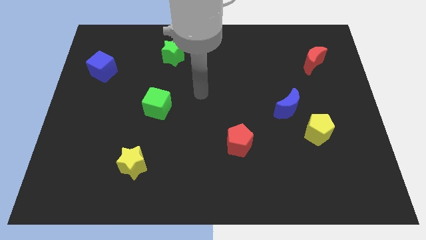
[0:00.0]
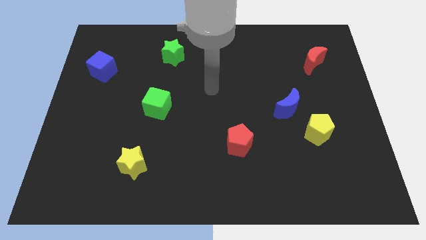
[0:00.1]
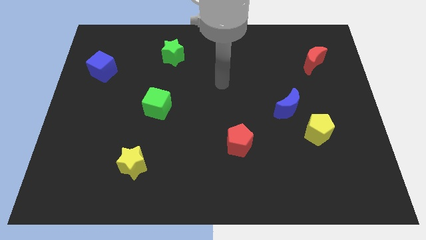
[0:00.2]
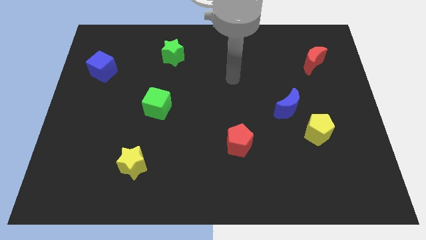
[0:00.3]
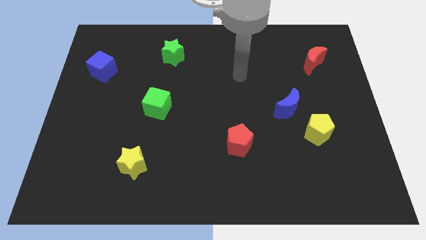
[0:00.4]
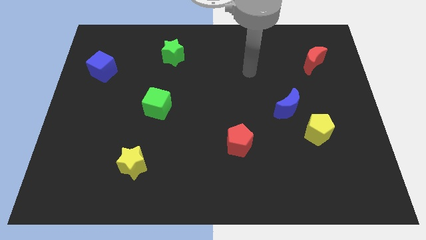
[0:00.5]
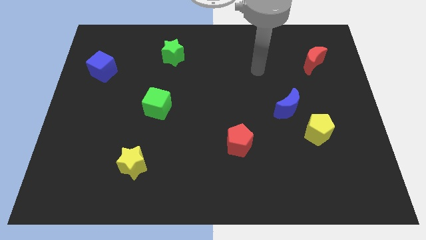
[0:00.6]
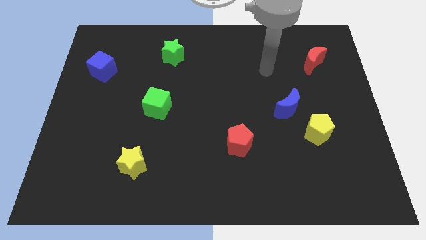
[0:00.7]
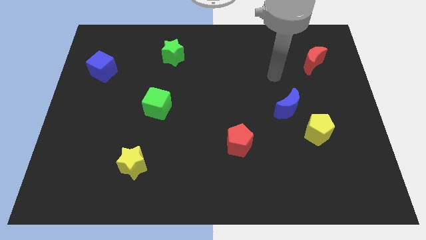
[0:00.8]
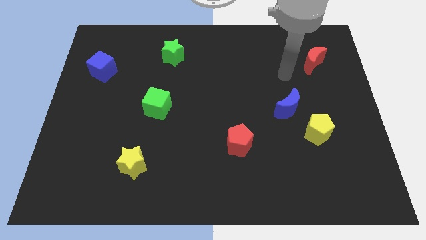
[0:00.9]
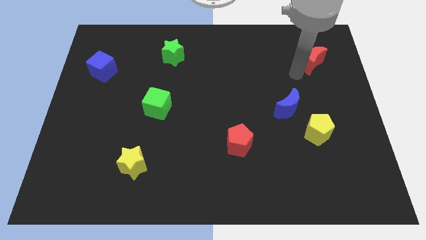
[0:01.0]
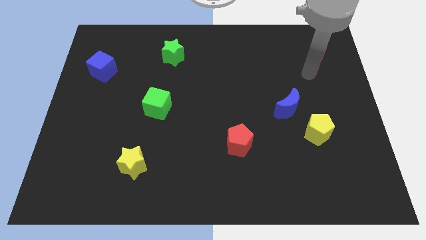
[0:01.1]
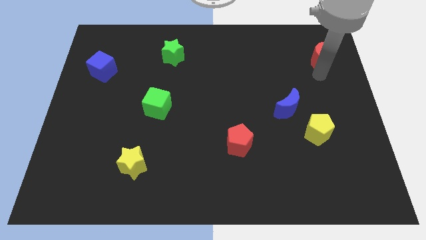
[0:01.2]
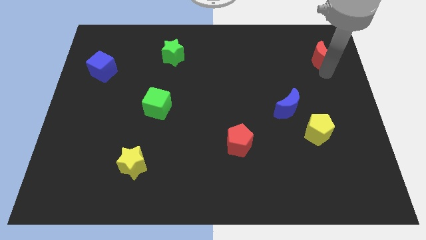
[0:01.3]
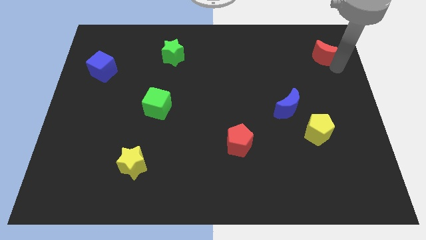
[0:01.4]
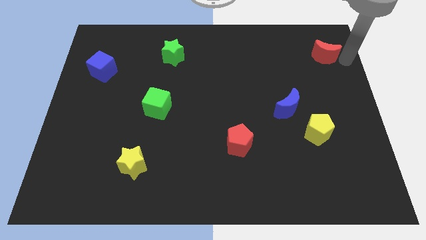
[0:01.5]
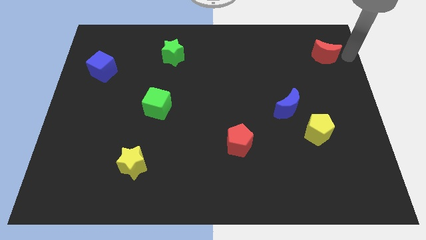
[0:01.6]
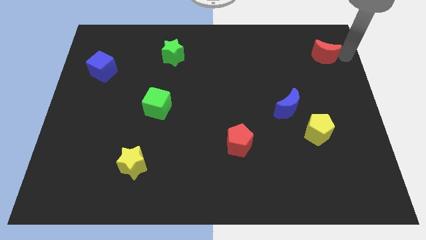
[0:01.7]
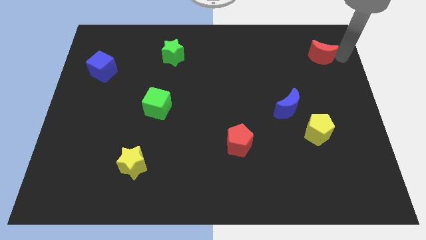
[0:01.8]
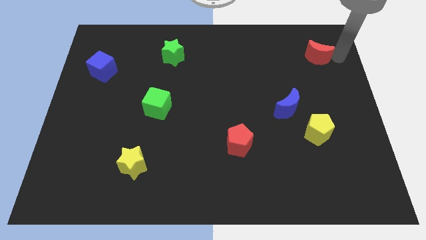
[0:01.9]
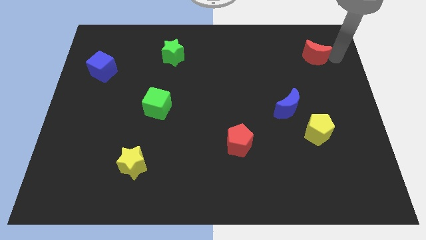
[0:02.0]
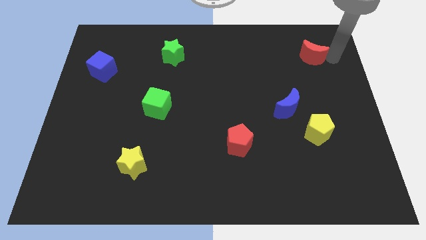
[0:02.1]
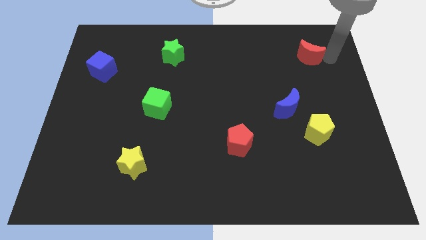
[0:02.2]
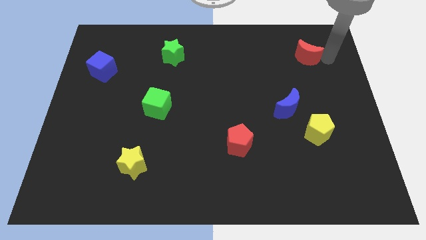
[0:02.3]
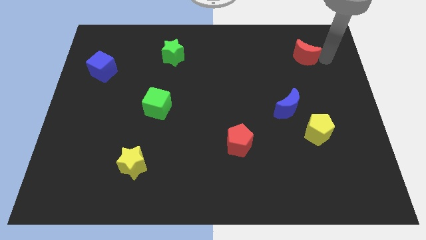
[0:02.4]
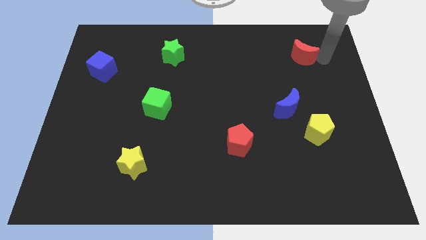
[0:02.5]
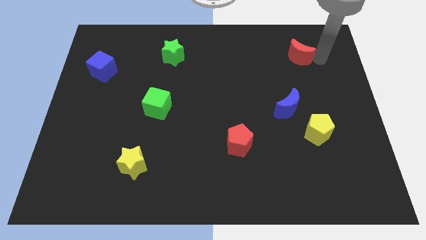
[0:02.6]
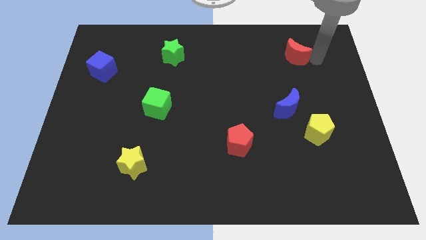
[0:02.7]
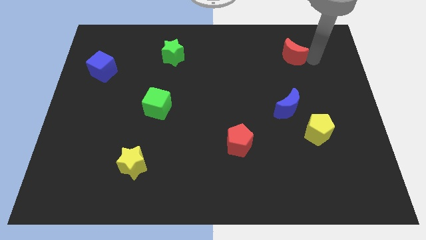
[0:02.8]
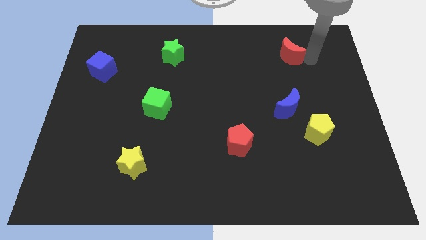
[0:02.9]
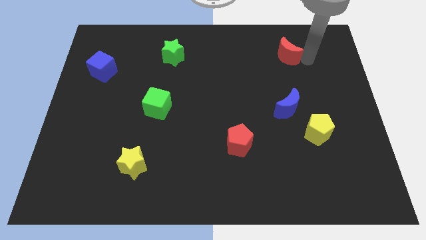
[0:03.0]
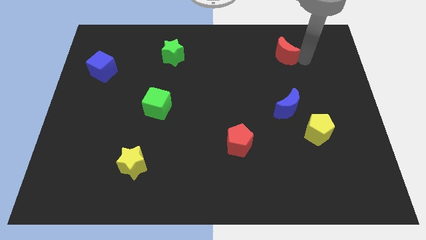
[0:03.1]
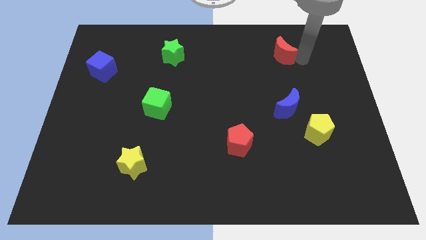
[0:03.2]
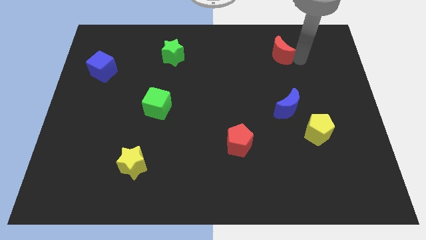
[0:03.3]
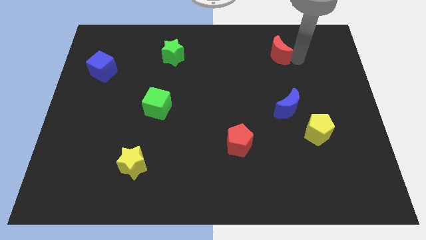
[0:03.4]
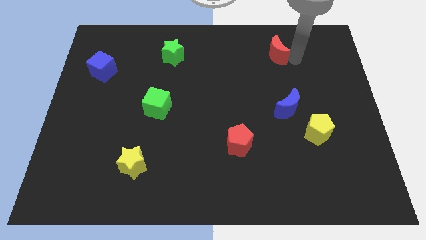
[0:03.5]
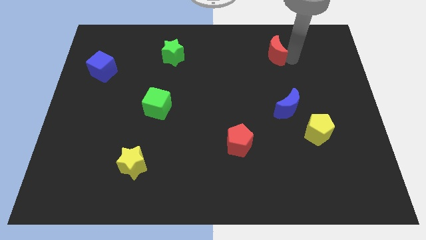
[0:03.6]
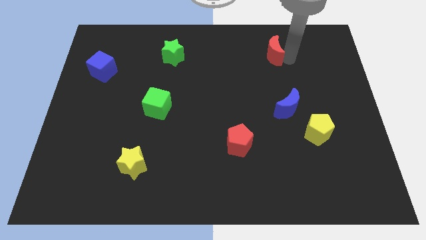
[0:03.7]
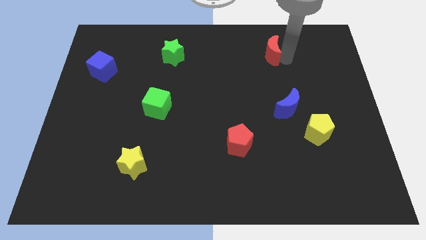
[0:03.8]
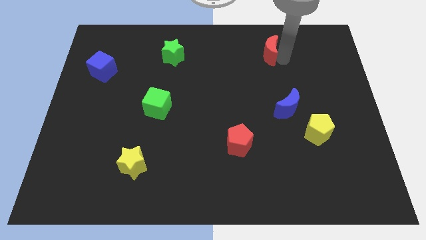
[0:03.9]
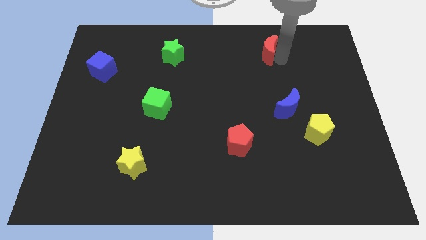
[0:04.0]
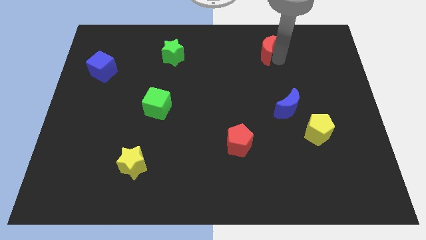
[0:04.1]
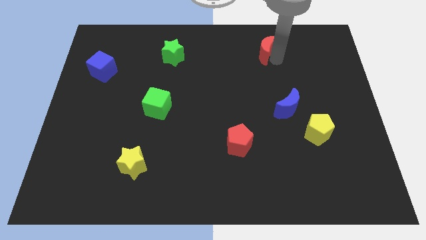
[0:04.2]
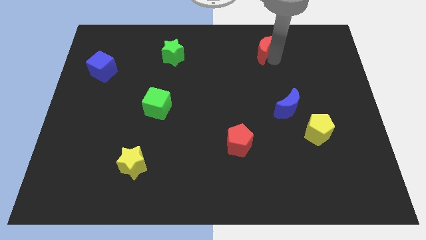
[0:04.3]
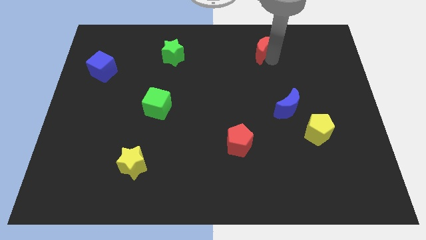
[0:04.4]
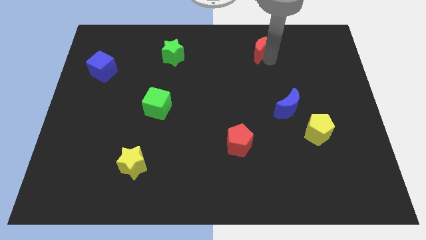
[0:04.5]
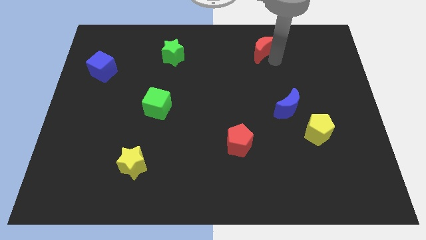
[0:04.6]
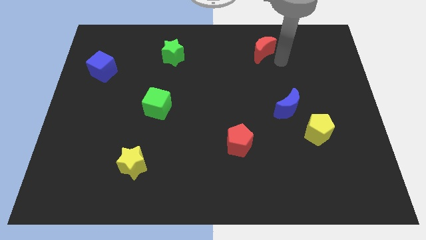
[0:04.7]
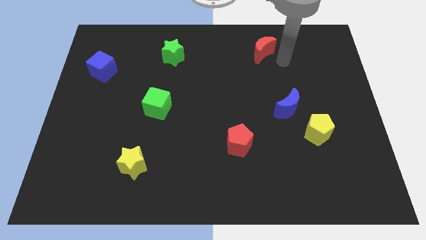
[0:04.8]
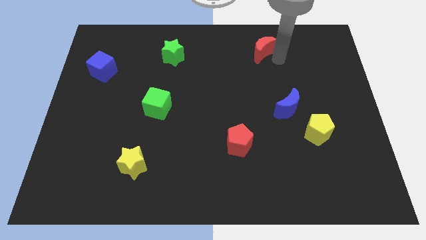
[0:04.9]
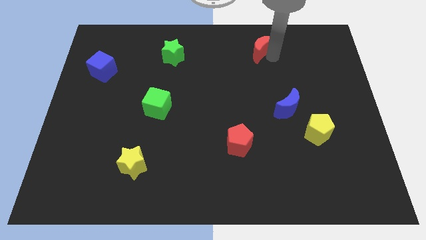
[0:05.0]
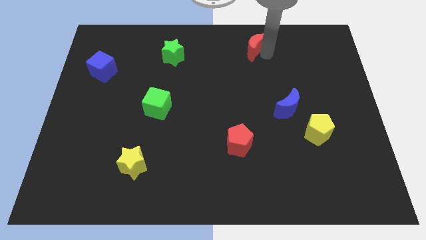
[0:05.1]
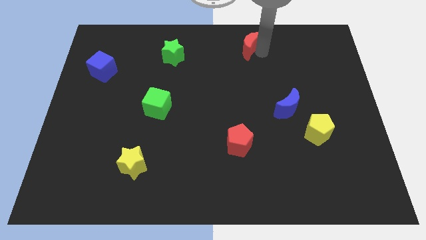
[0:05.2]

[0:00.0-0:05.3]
move the red moon to the top

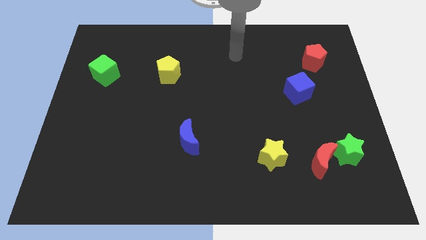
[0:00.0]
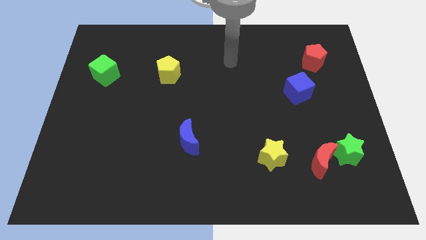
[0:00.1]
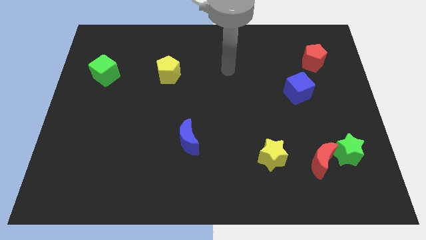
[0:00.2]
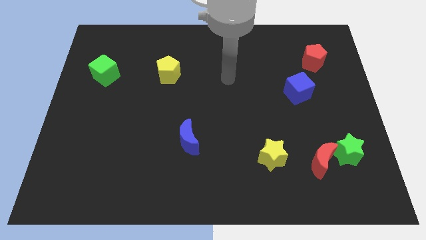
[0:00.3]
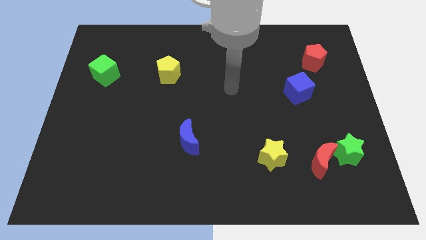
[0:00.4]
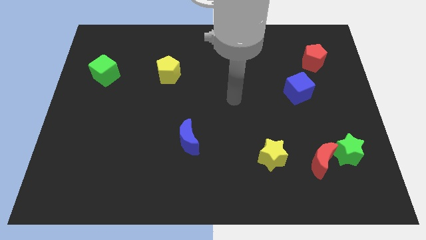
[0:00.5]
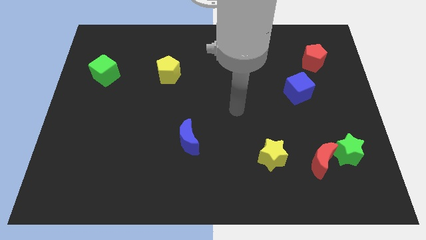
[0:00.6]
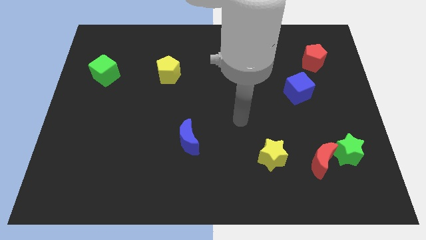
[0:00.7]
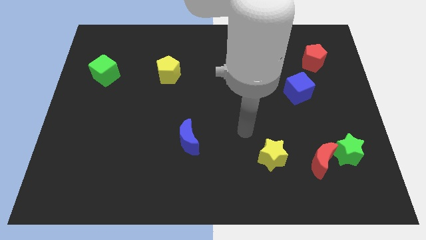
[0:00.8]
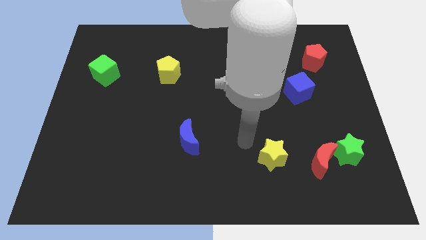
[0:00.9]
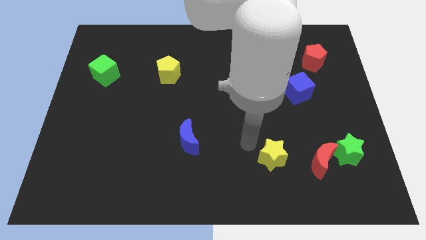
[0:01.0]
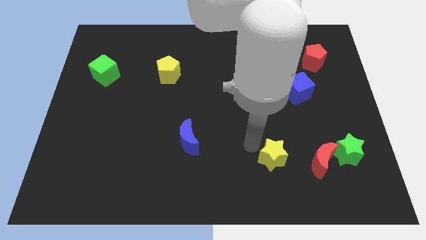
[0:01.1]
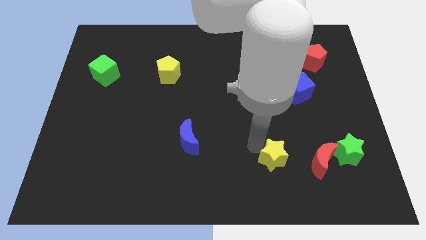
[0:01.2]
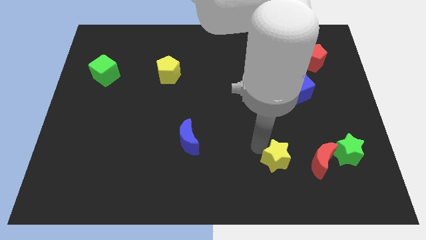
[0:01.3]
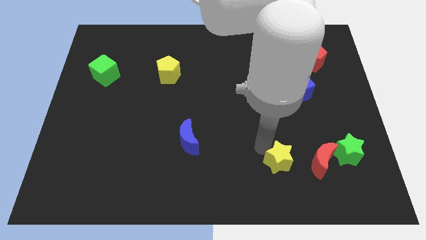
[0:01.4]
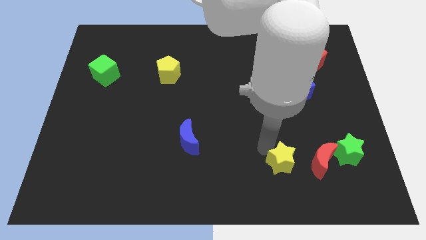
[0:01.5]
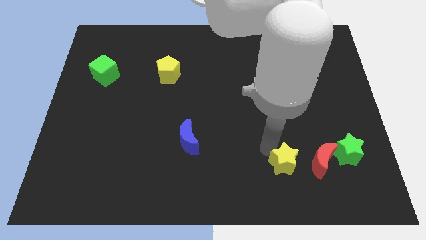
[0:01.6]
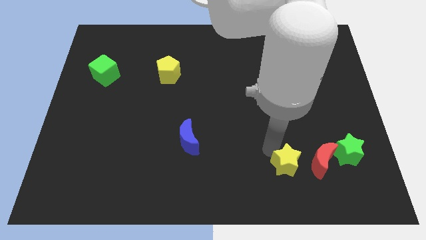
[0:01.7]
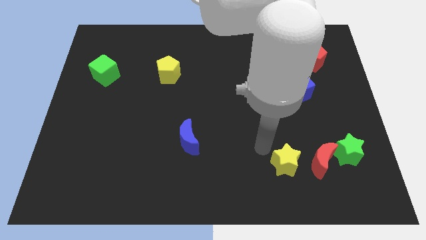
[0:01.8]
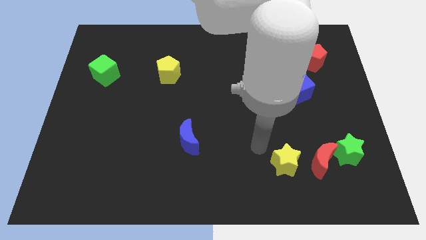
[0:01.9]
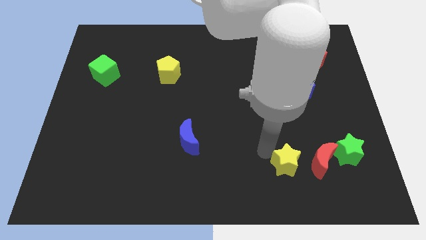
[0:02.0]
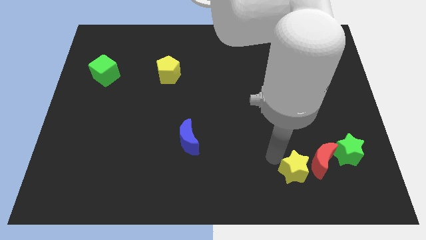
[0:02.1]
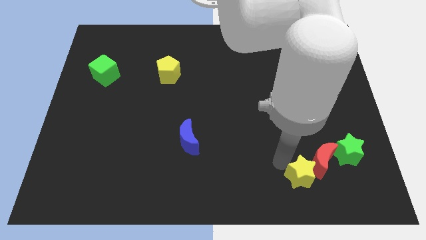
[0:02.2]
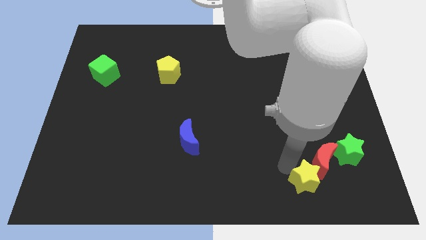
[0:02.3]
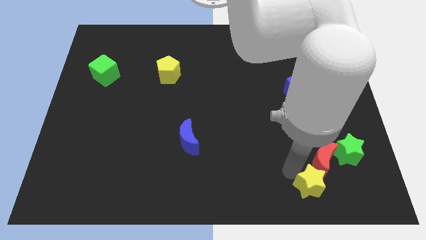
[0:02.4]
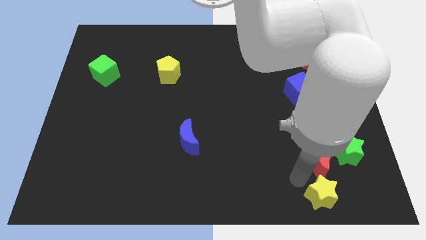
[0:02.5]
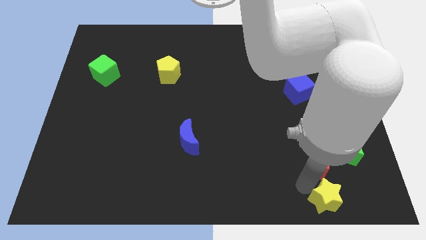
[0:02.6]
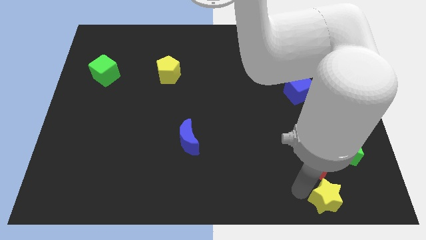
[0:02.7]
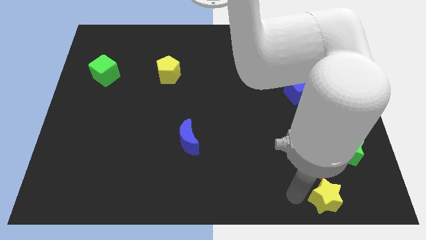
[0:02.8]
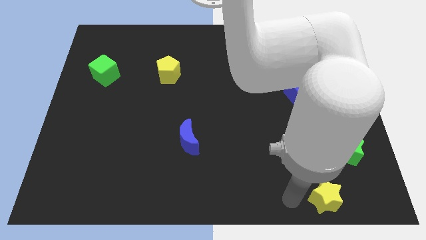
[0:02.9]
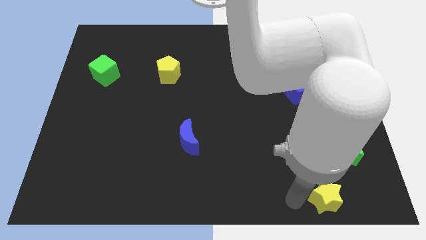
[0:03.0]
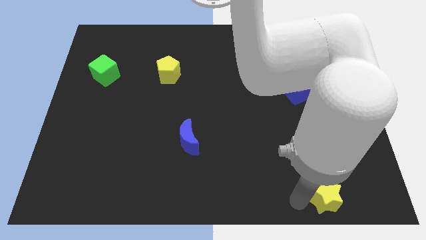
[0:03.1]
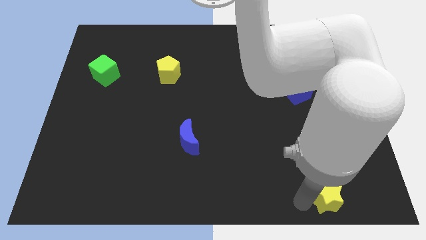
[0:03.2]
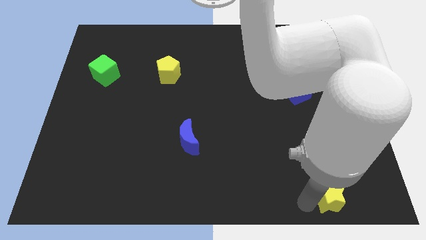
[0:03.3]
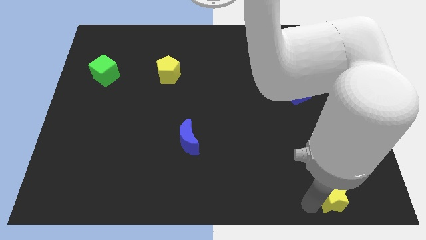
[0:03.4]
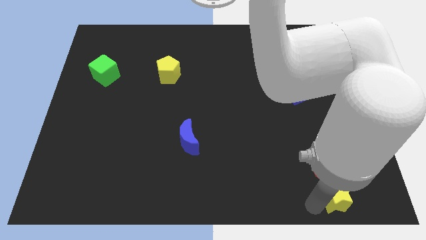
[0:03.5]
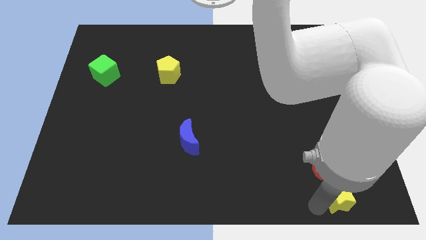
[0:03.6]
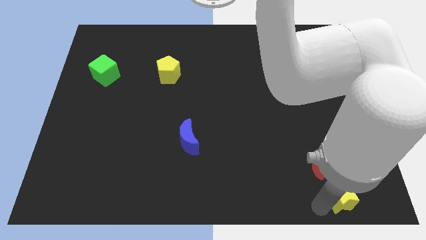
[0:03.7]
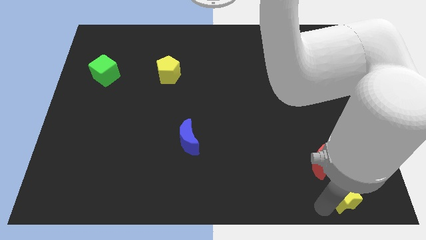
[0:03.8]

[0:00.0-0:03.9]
slide the yellow star to the lower right corner
